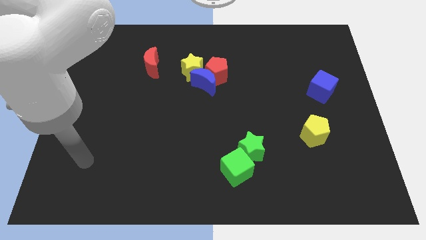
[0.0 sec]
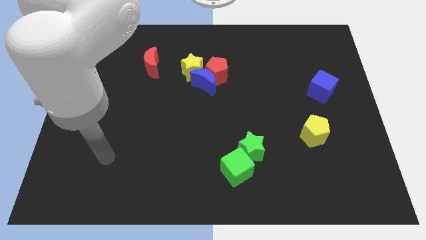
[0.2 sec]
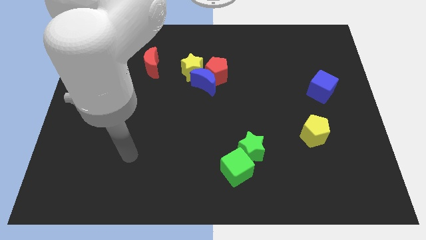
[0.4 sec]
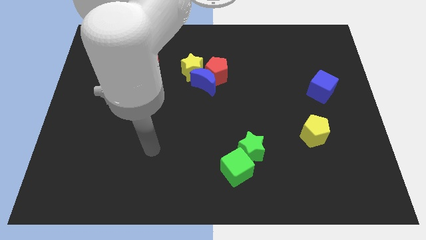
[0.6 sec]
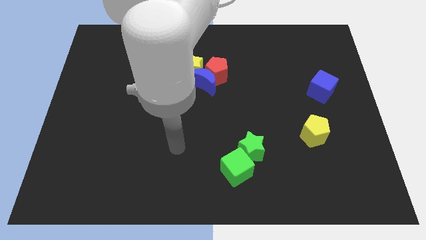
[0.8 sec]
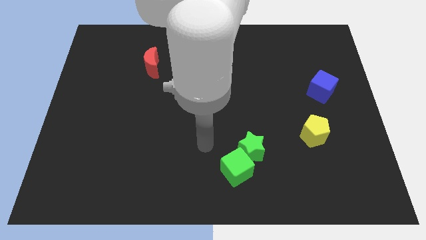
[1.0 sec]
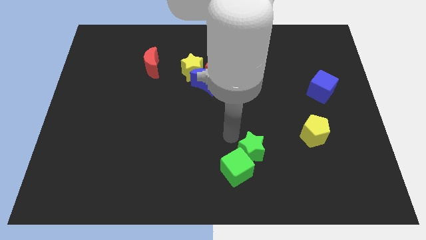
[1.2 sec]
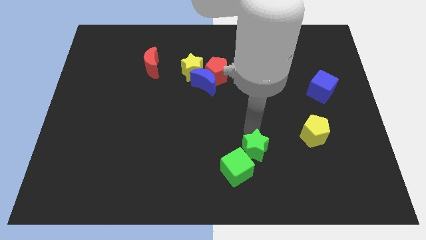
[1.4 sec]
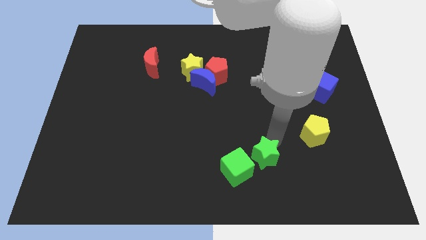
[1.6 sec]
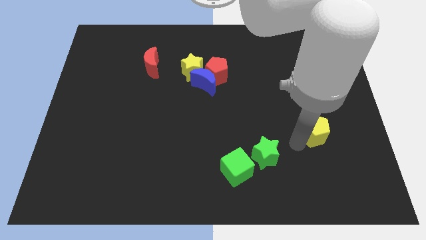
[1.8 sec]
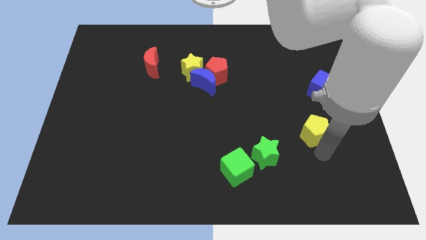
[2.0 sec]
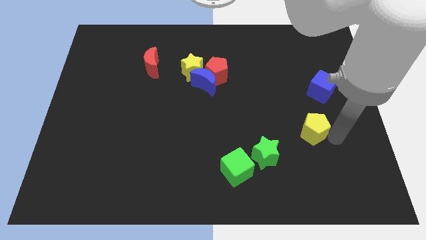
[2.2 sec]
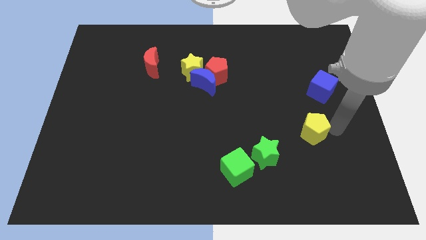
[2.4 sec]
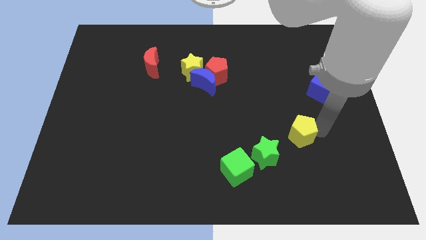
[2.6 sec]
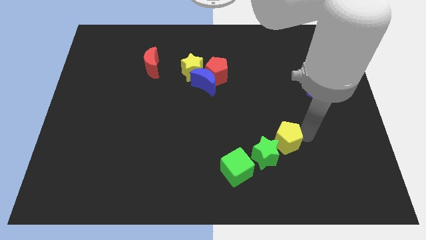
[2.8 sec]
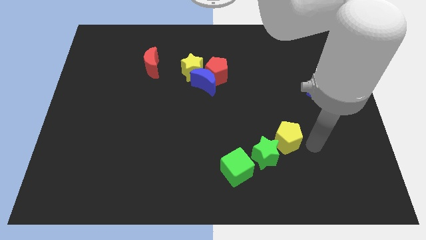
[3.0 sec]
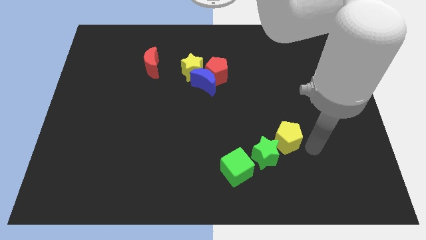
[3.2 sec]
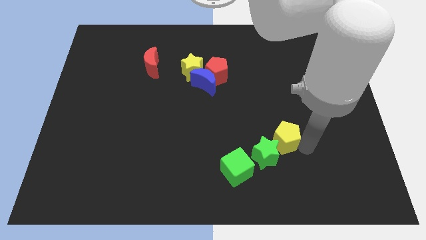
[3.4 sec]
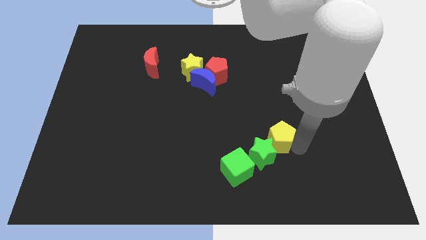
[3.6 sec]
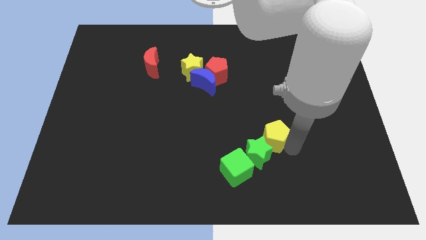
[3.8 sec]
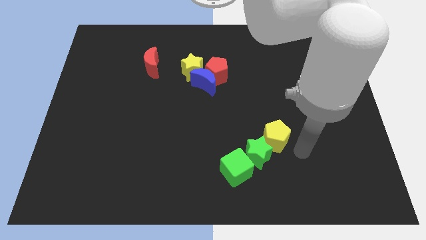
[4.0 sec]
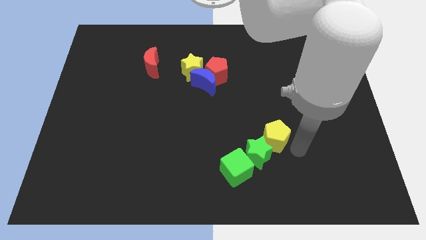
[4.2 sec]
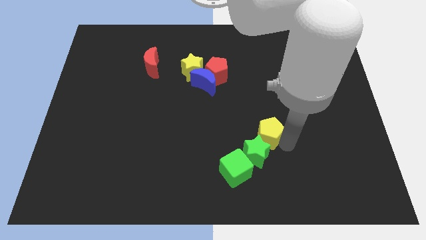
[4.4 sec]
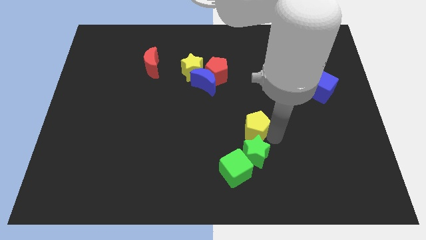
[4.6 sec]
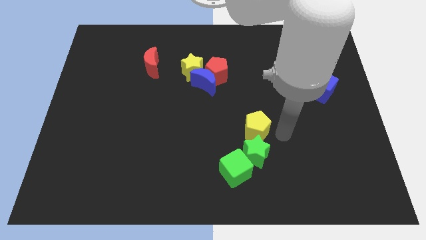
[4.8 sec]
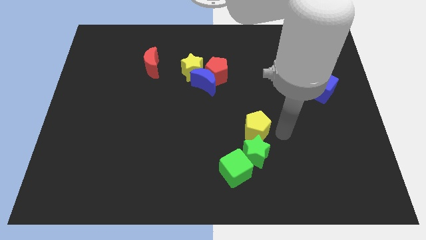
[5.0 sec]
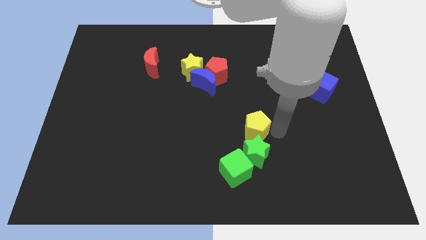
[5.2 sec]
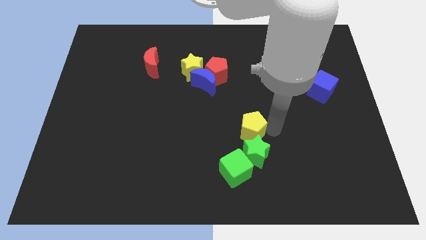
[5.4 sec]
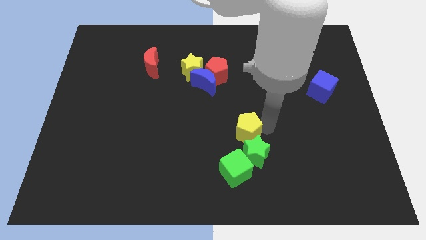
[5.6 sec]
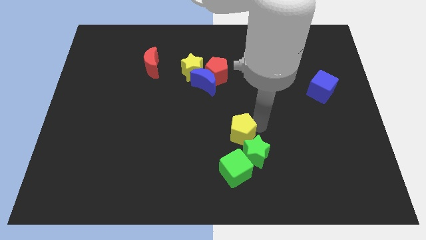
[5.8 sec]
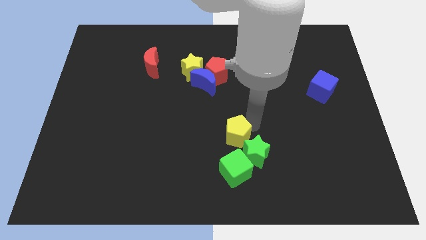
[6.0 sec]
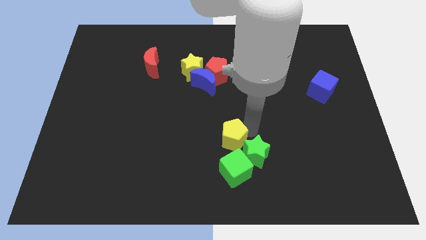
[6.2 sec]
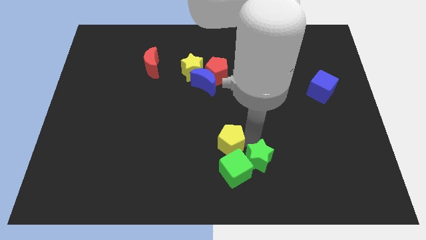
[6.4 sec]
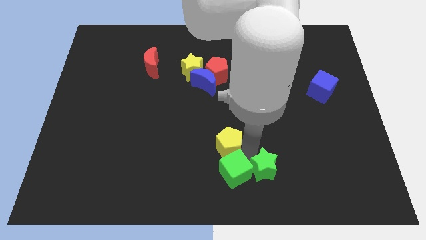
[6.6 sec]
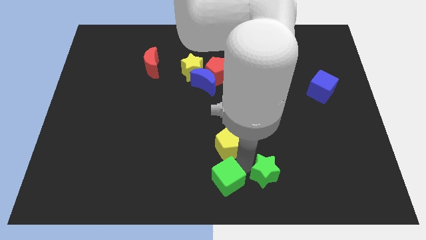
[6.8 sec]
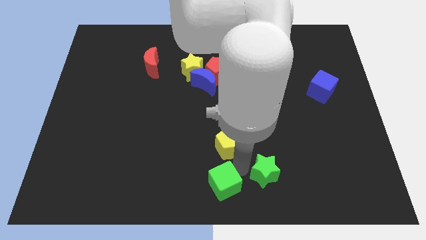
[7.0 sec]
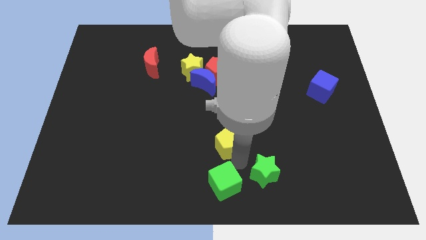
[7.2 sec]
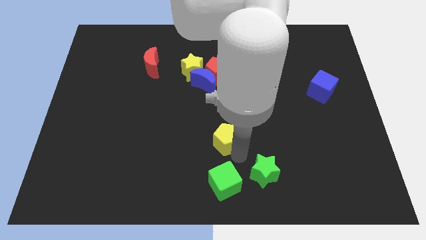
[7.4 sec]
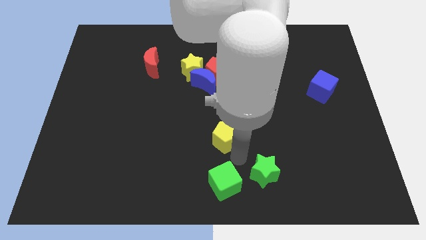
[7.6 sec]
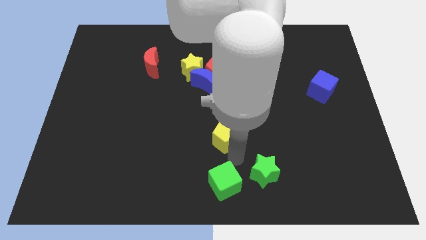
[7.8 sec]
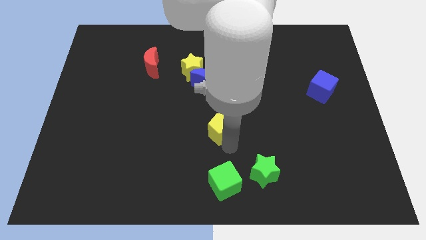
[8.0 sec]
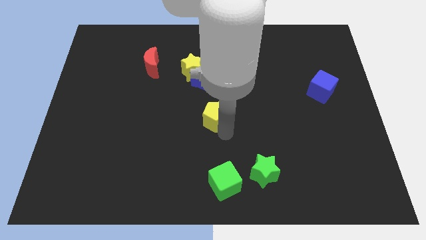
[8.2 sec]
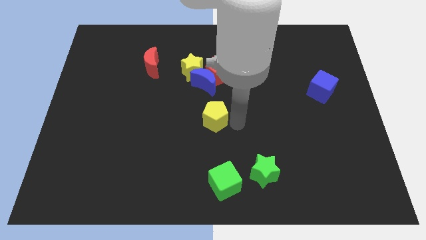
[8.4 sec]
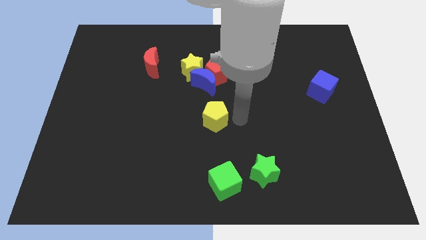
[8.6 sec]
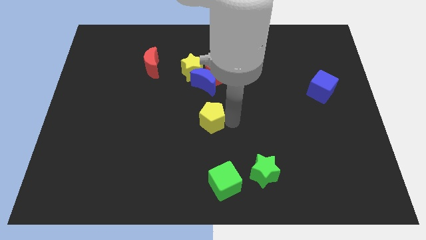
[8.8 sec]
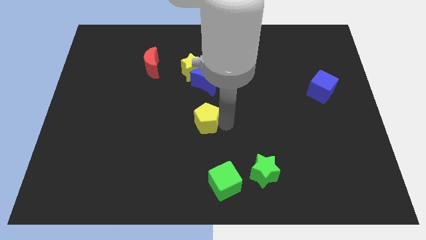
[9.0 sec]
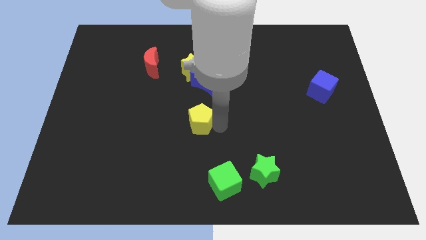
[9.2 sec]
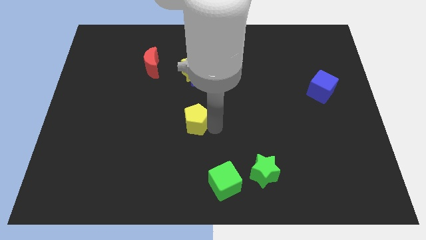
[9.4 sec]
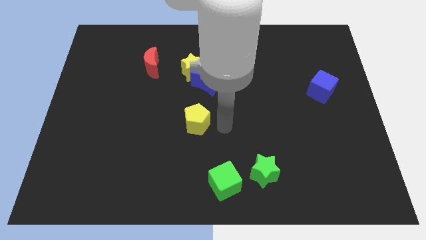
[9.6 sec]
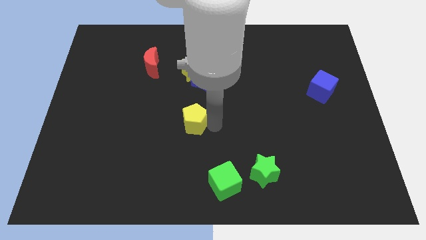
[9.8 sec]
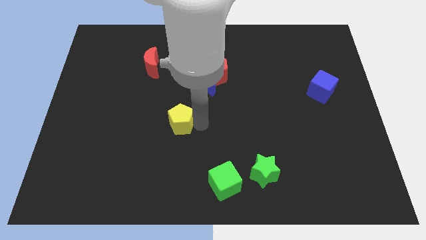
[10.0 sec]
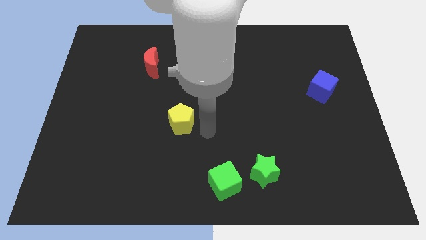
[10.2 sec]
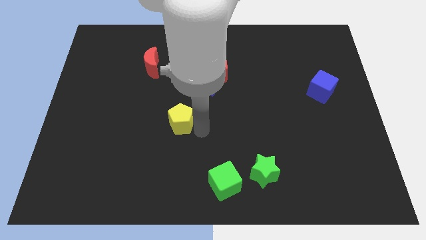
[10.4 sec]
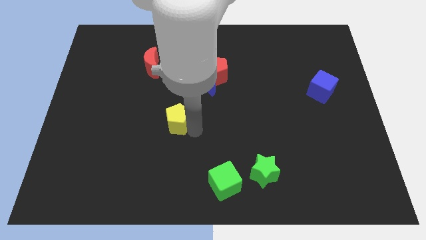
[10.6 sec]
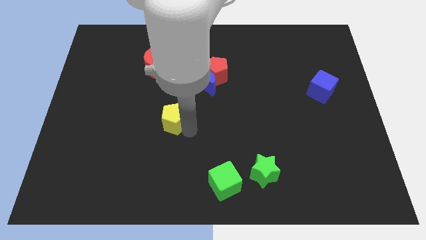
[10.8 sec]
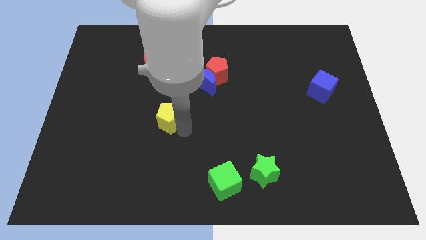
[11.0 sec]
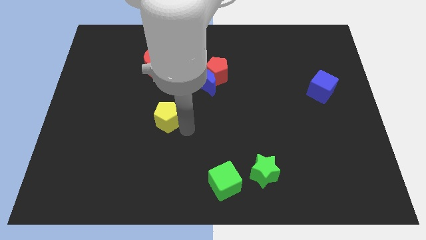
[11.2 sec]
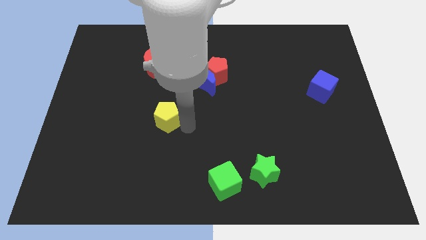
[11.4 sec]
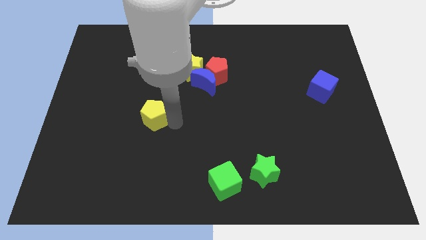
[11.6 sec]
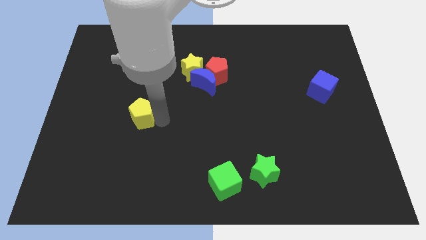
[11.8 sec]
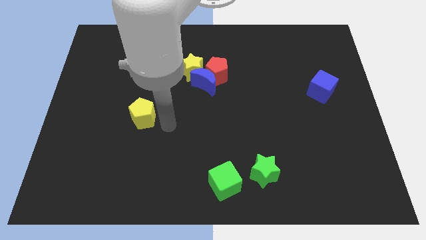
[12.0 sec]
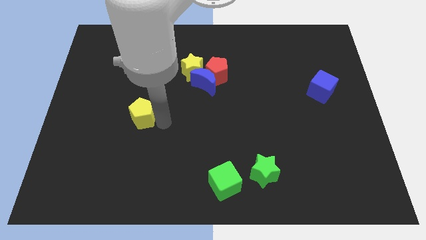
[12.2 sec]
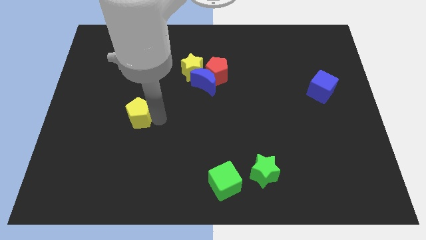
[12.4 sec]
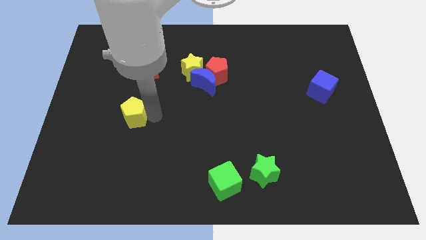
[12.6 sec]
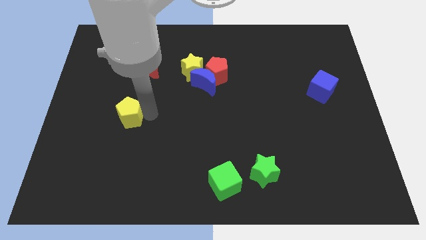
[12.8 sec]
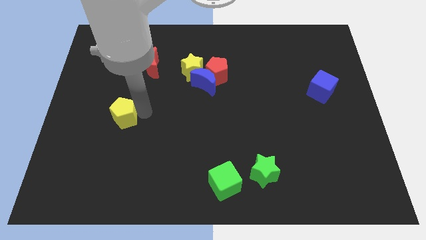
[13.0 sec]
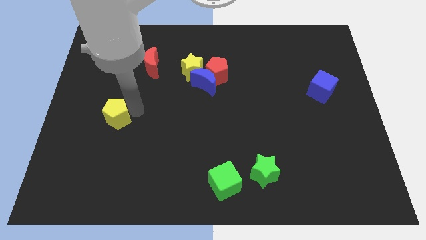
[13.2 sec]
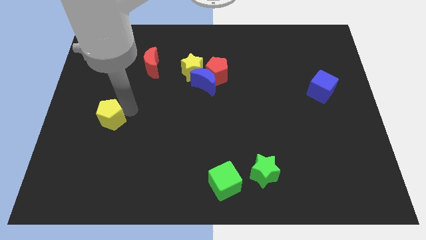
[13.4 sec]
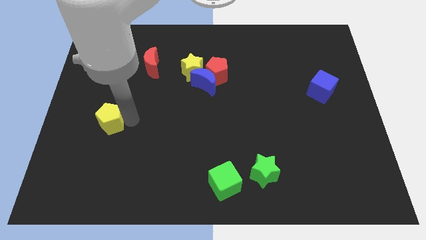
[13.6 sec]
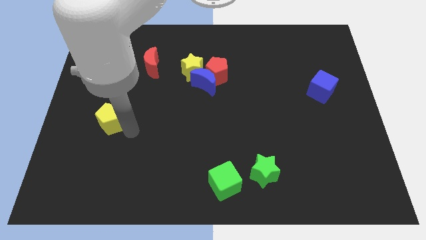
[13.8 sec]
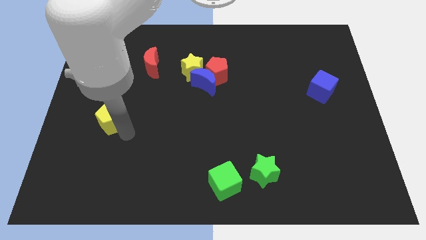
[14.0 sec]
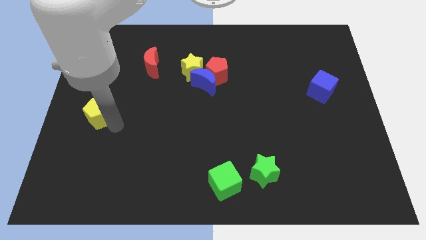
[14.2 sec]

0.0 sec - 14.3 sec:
push the yellow pentagon to the left side
